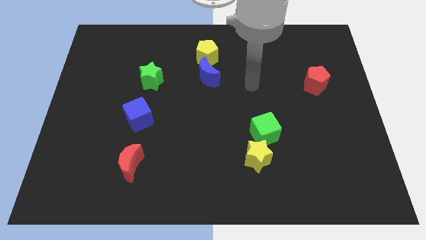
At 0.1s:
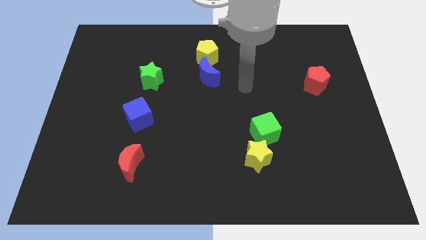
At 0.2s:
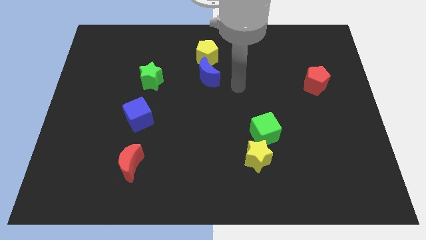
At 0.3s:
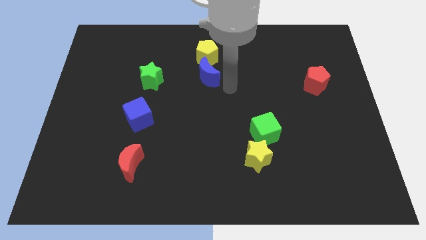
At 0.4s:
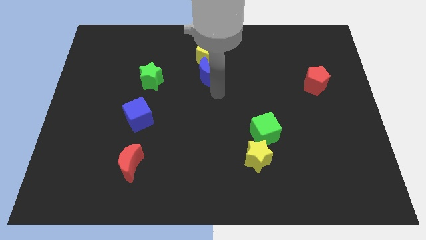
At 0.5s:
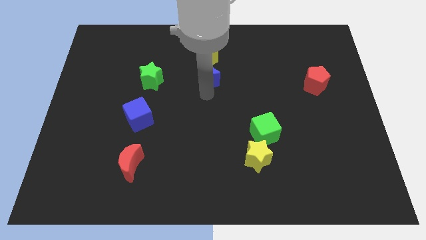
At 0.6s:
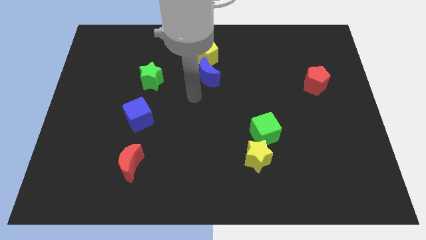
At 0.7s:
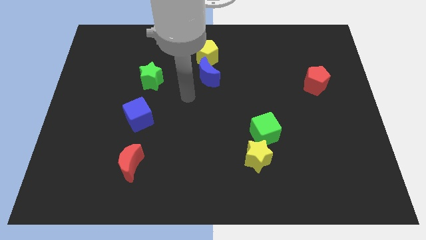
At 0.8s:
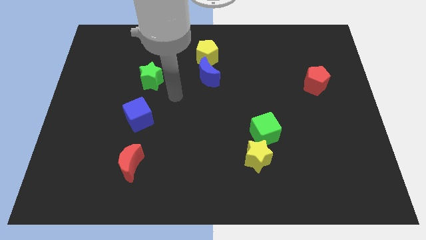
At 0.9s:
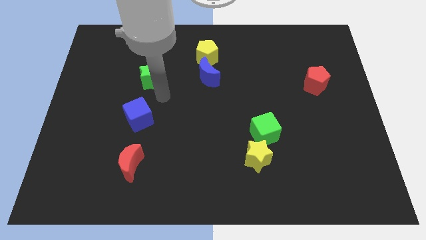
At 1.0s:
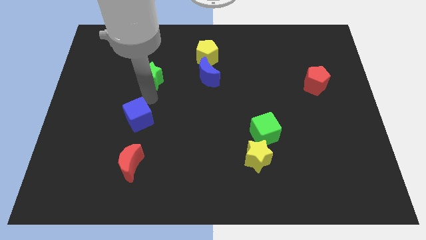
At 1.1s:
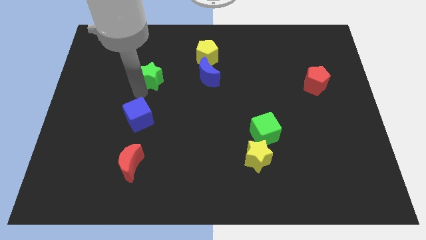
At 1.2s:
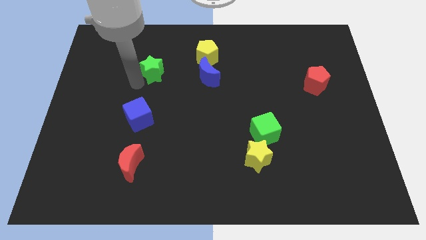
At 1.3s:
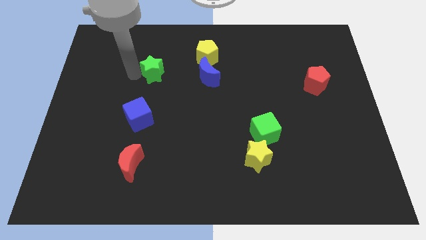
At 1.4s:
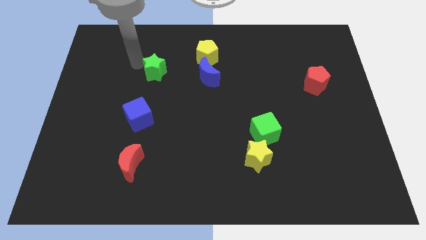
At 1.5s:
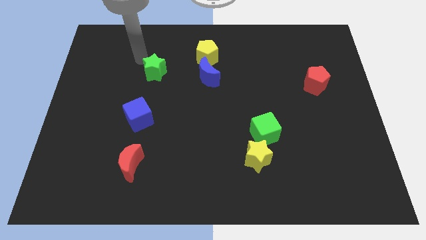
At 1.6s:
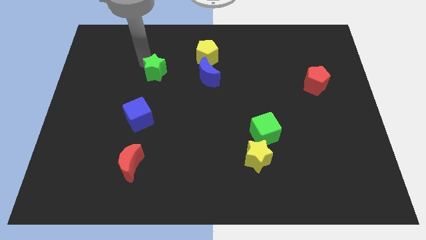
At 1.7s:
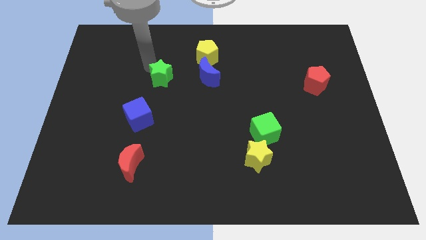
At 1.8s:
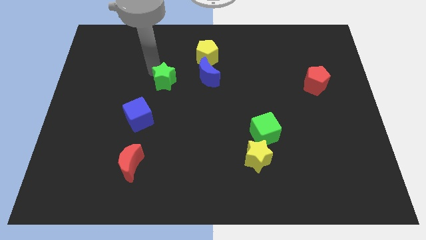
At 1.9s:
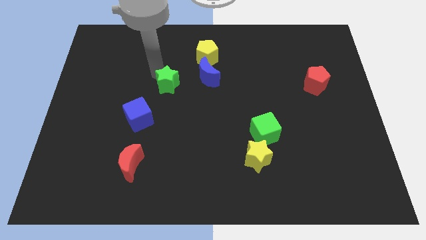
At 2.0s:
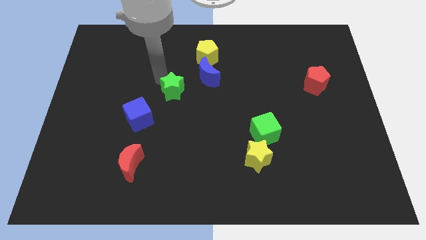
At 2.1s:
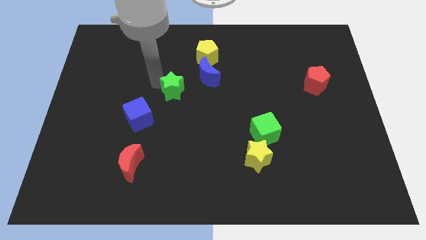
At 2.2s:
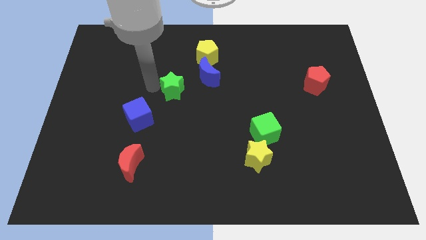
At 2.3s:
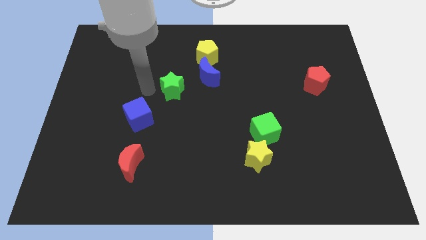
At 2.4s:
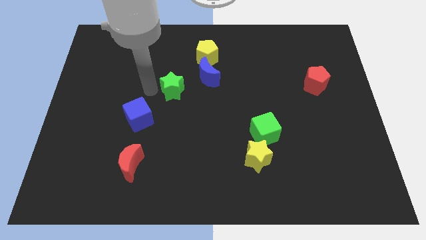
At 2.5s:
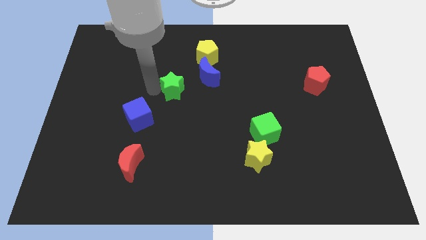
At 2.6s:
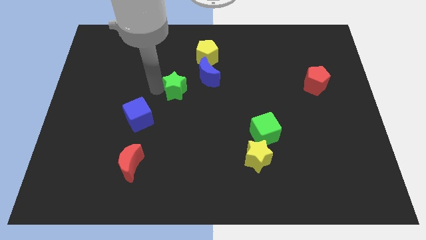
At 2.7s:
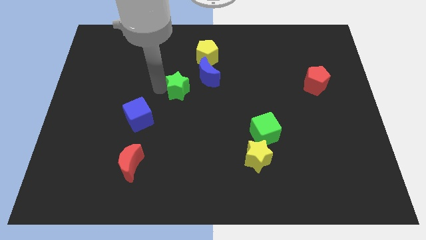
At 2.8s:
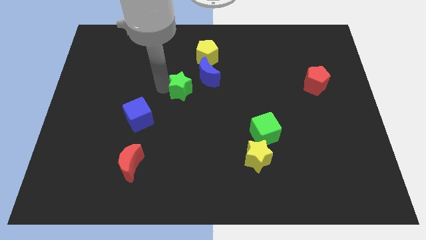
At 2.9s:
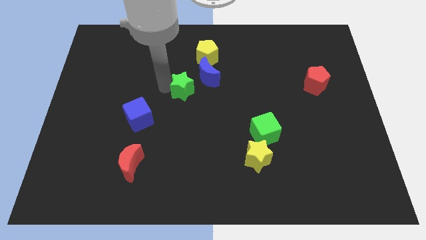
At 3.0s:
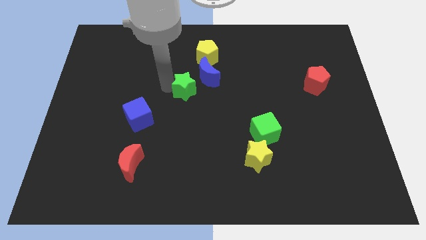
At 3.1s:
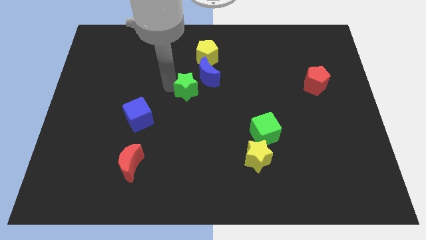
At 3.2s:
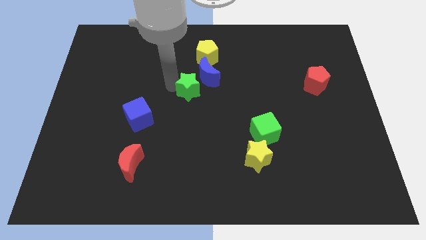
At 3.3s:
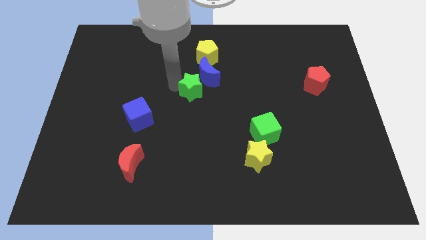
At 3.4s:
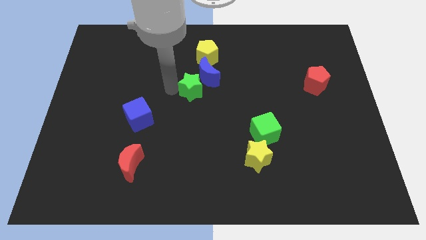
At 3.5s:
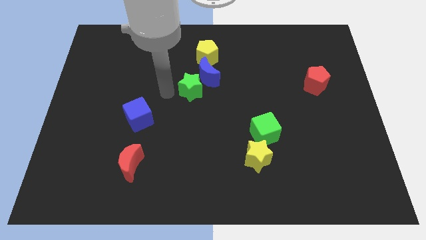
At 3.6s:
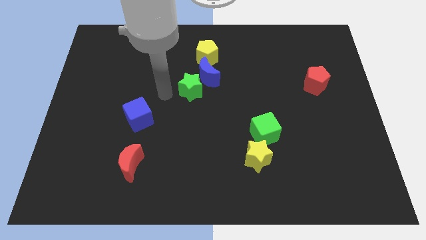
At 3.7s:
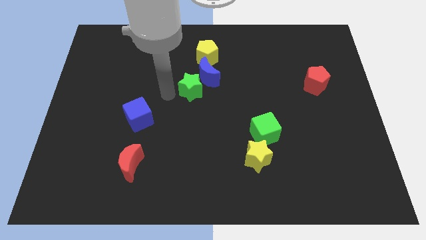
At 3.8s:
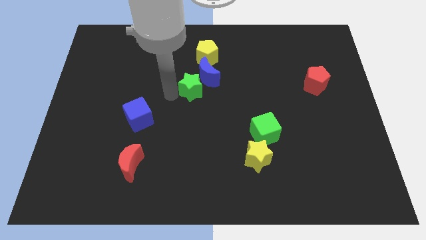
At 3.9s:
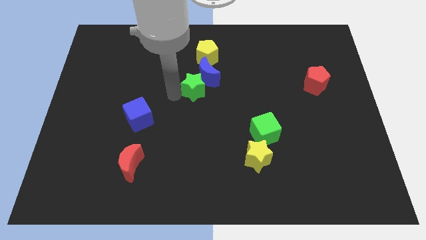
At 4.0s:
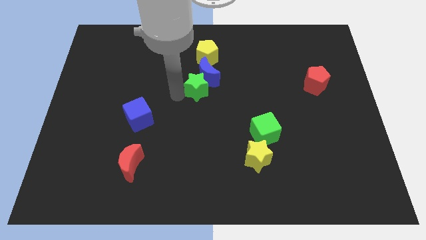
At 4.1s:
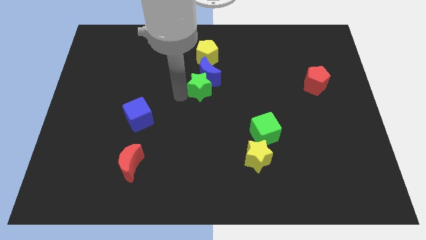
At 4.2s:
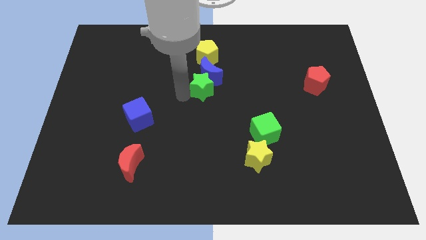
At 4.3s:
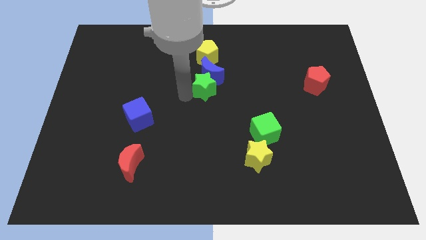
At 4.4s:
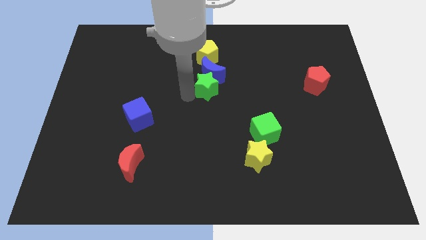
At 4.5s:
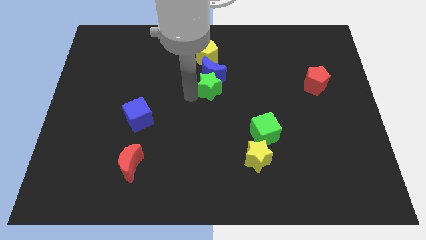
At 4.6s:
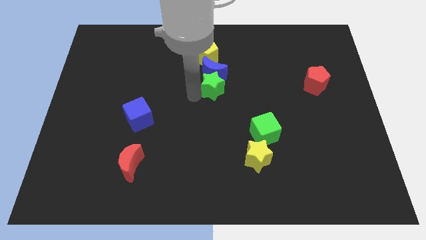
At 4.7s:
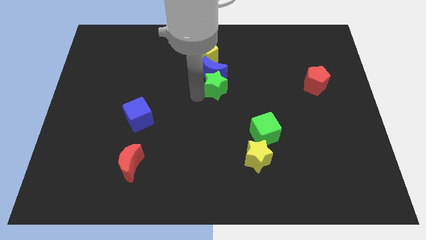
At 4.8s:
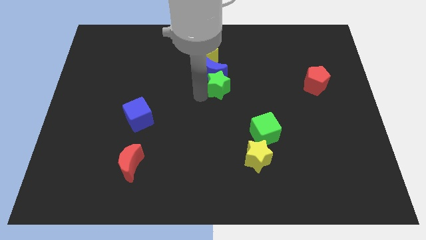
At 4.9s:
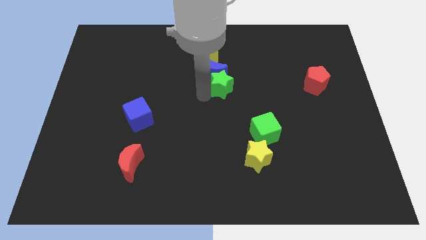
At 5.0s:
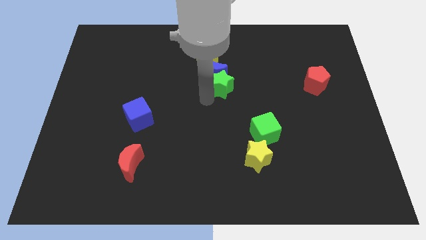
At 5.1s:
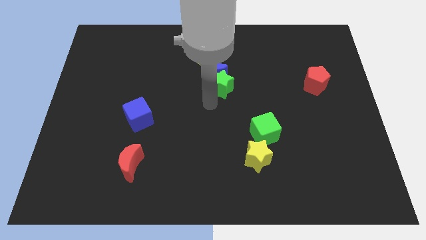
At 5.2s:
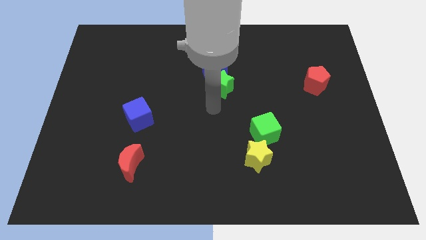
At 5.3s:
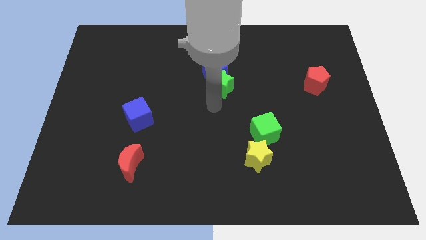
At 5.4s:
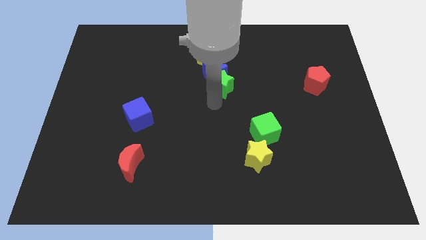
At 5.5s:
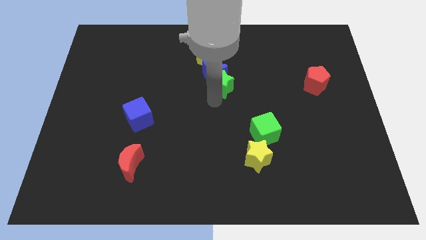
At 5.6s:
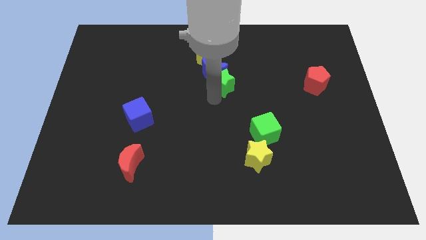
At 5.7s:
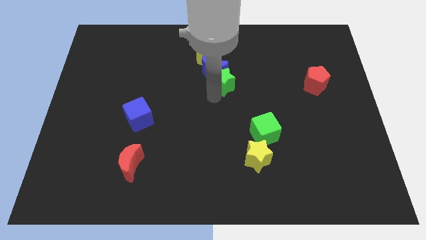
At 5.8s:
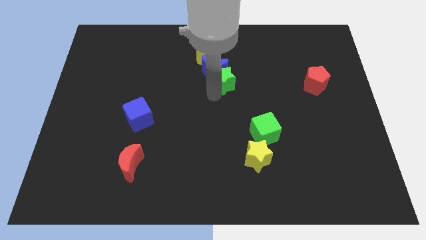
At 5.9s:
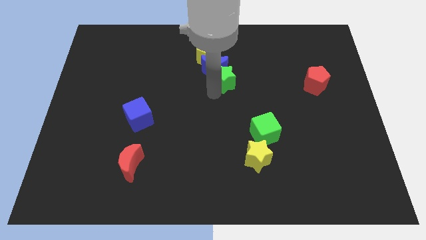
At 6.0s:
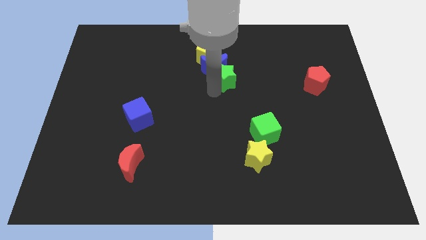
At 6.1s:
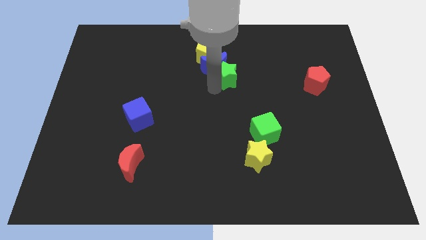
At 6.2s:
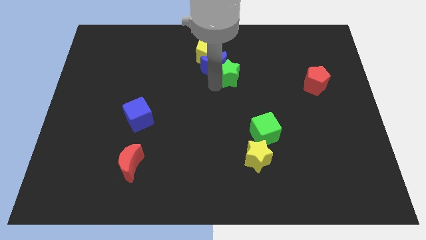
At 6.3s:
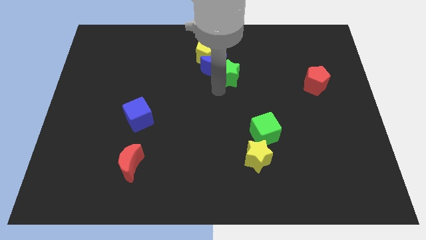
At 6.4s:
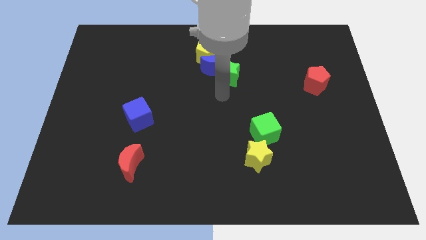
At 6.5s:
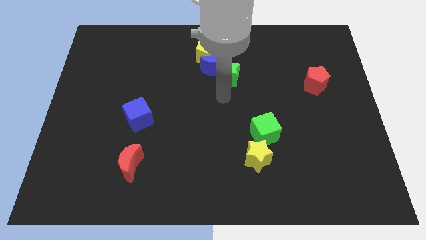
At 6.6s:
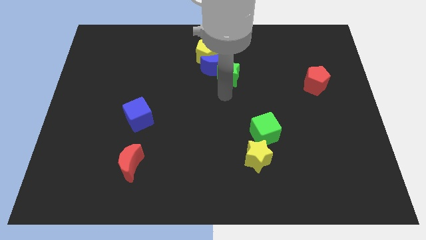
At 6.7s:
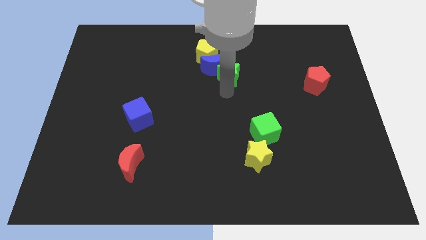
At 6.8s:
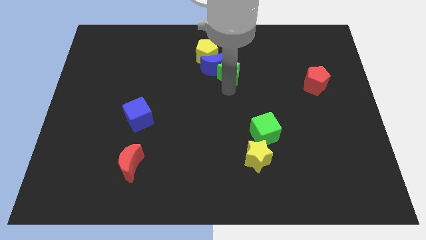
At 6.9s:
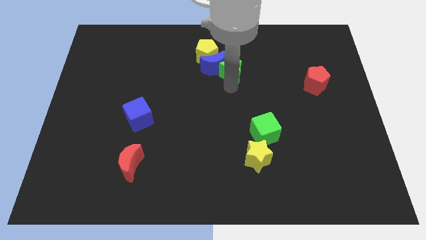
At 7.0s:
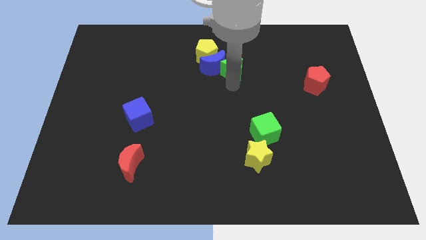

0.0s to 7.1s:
push the green star to the top right side of the blue moon

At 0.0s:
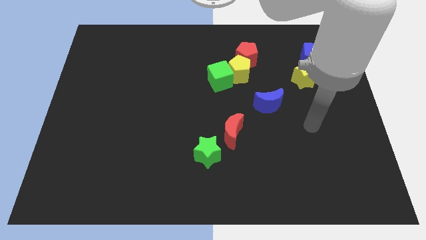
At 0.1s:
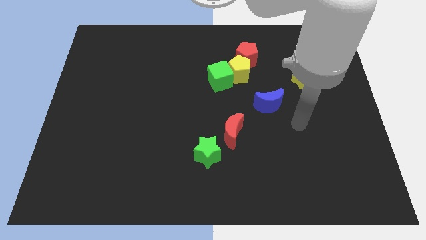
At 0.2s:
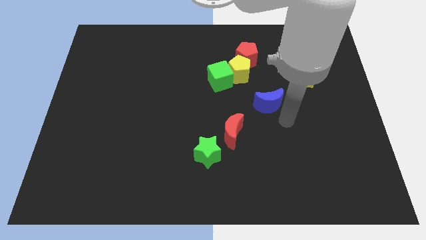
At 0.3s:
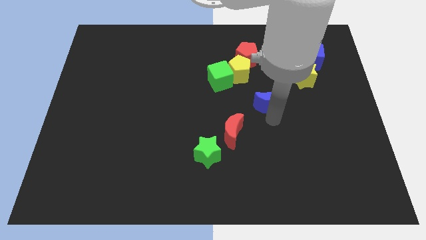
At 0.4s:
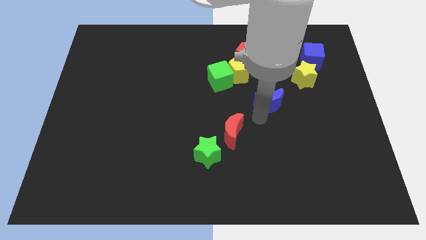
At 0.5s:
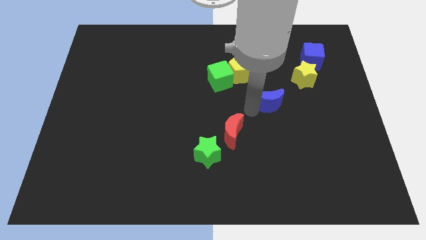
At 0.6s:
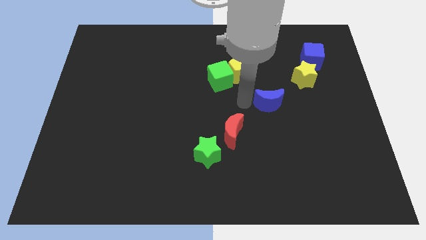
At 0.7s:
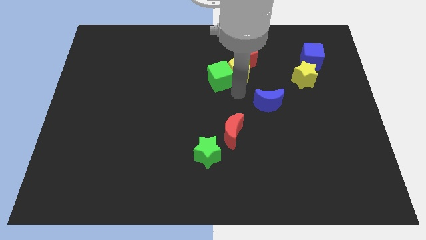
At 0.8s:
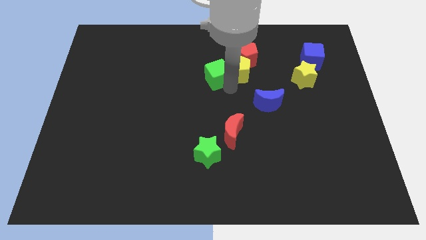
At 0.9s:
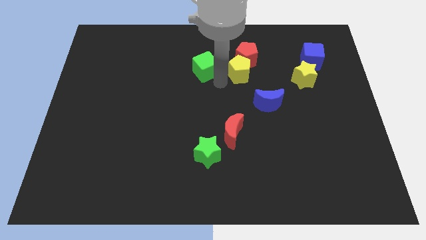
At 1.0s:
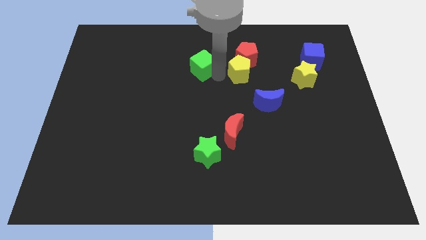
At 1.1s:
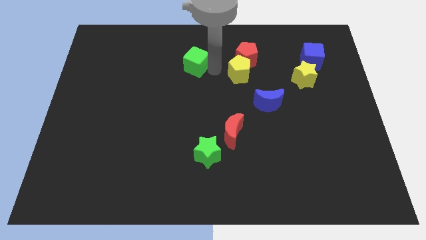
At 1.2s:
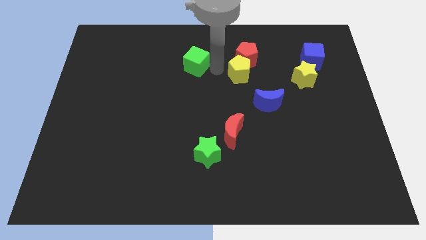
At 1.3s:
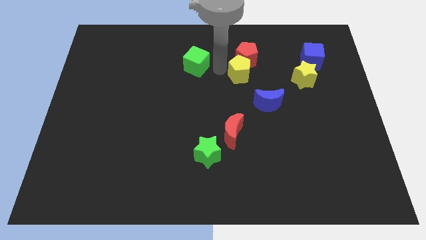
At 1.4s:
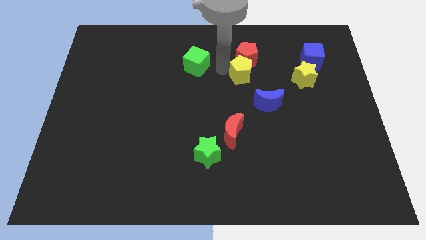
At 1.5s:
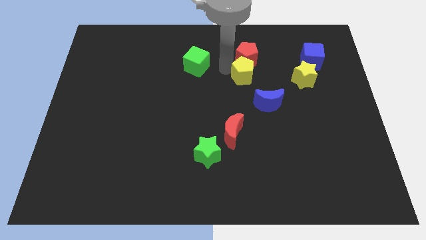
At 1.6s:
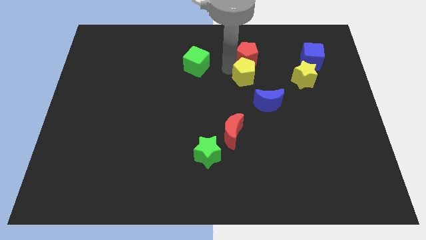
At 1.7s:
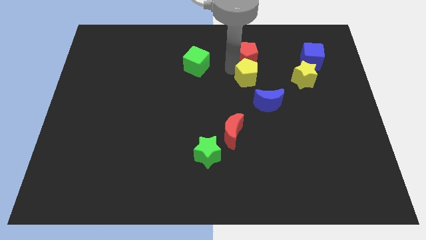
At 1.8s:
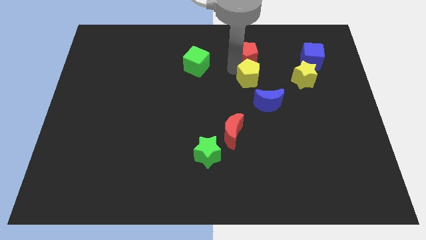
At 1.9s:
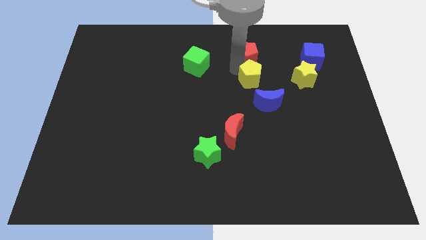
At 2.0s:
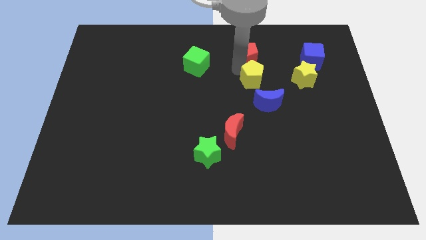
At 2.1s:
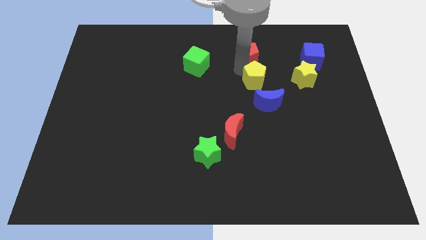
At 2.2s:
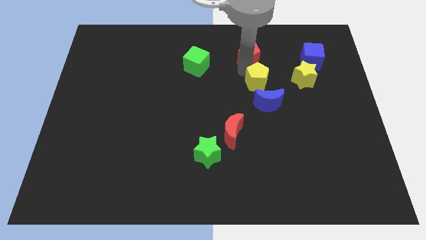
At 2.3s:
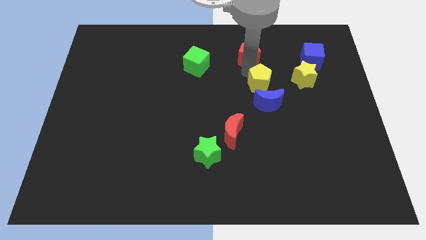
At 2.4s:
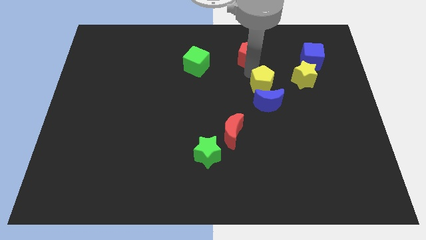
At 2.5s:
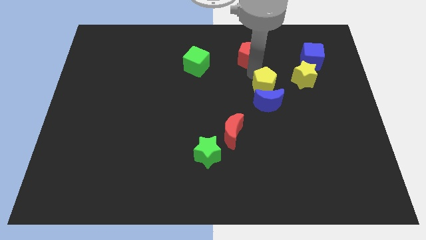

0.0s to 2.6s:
push the yellow pentagon diagonally up and to the right of the blue moon
